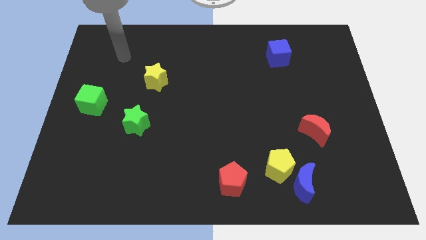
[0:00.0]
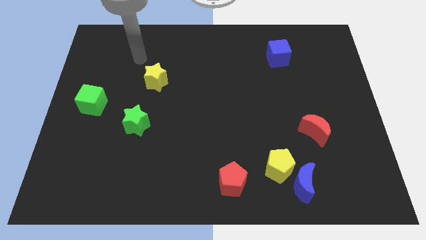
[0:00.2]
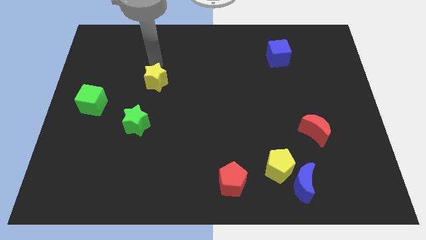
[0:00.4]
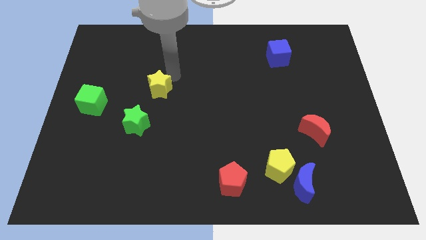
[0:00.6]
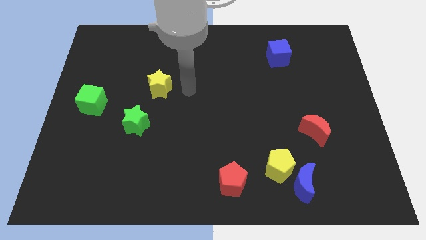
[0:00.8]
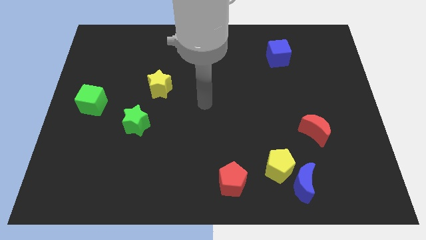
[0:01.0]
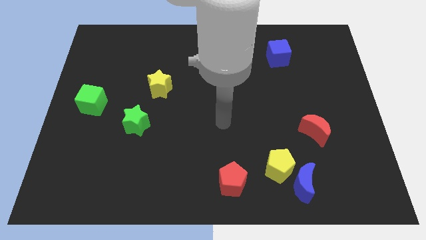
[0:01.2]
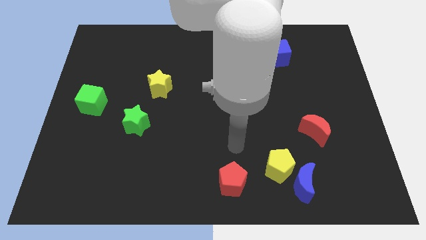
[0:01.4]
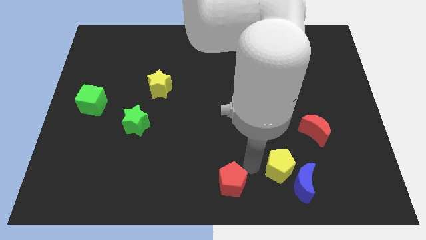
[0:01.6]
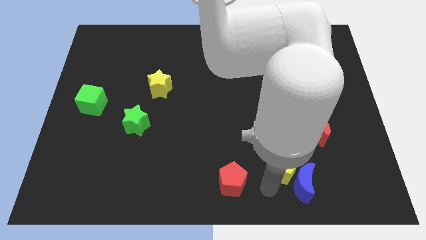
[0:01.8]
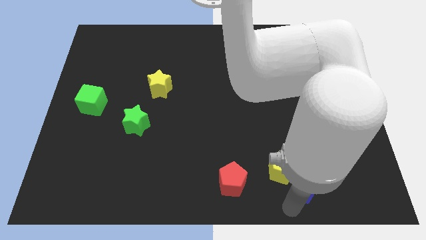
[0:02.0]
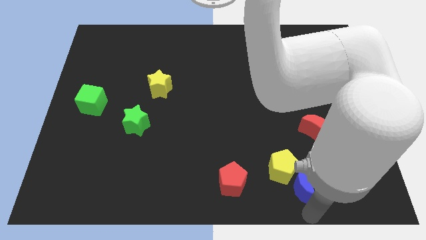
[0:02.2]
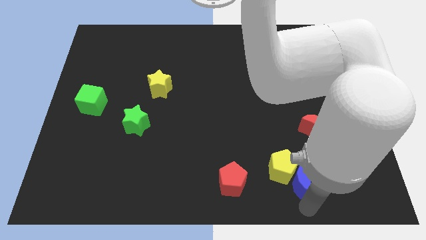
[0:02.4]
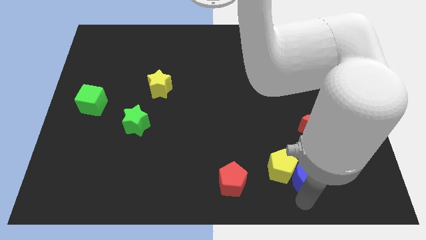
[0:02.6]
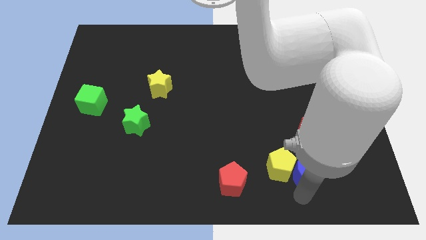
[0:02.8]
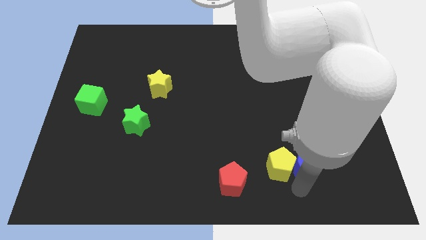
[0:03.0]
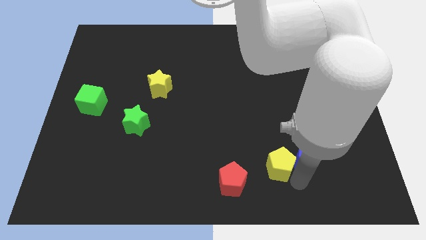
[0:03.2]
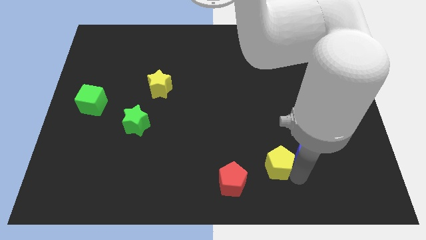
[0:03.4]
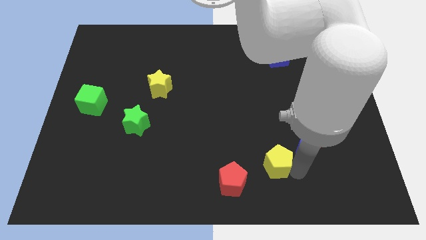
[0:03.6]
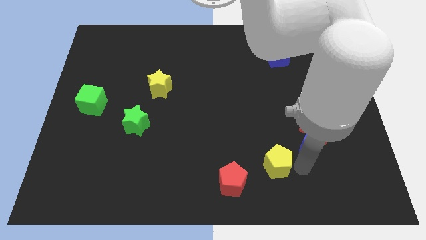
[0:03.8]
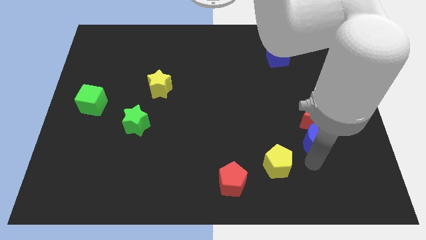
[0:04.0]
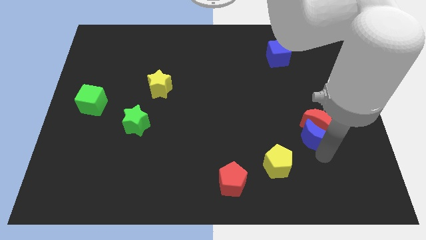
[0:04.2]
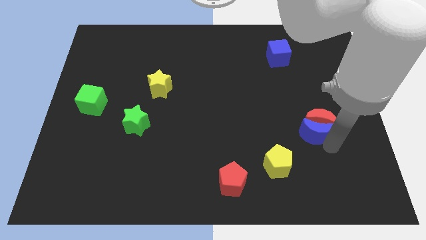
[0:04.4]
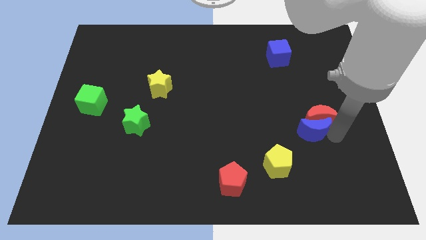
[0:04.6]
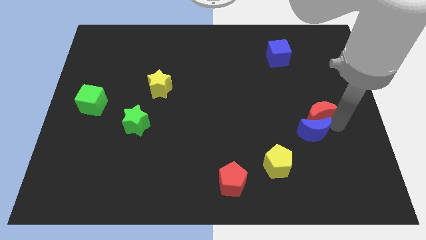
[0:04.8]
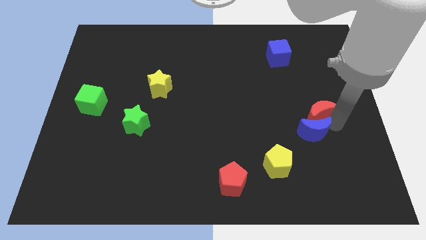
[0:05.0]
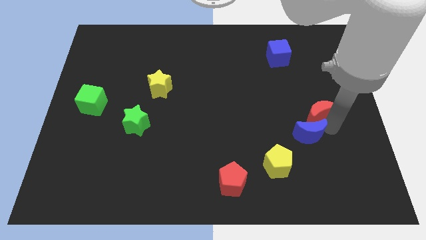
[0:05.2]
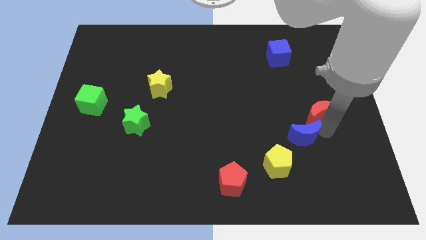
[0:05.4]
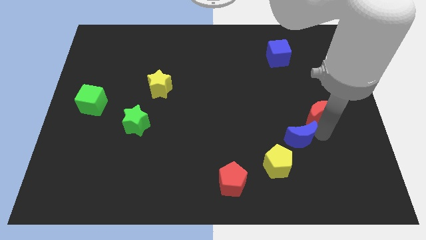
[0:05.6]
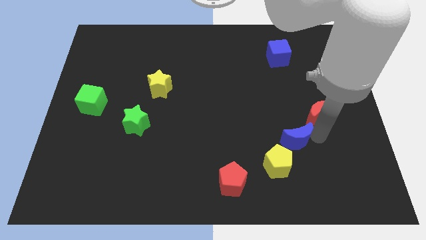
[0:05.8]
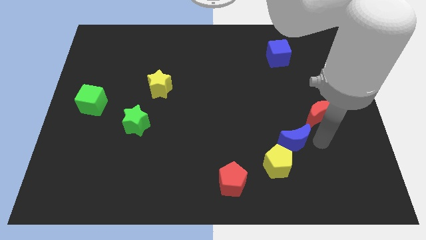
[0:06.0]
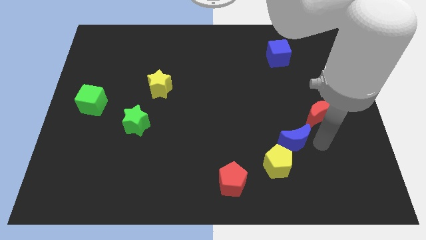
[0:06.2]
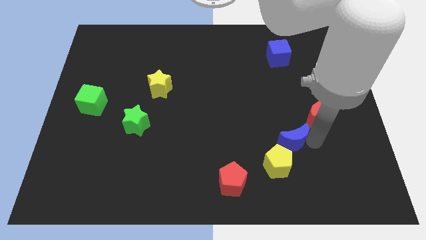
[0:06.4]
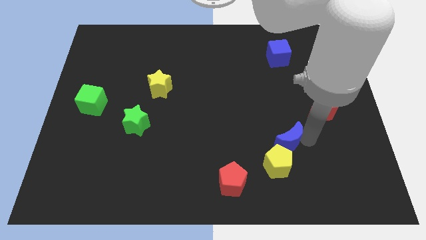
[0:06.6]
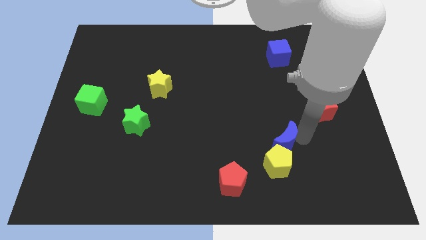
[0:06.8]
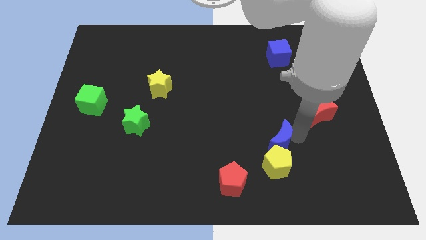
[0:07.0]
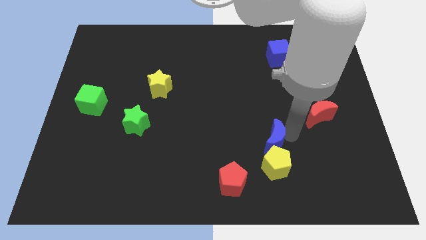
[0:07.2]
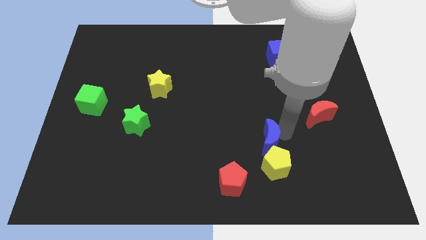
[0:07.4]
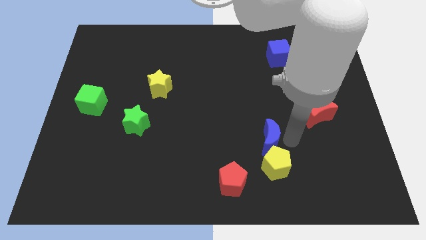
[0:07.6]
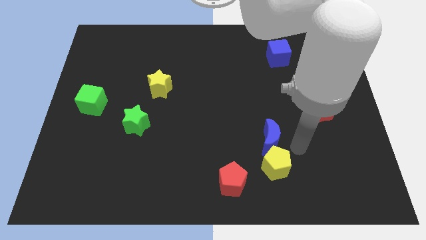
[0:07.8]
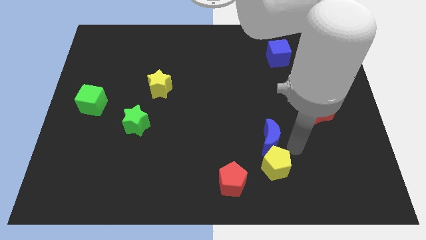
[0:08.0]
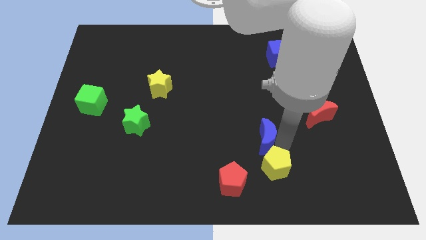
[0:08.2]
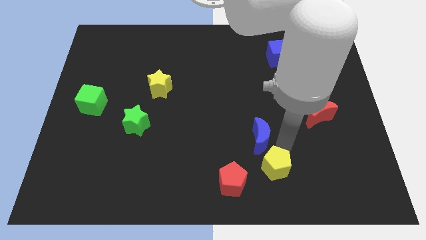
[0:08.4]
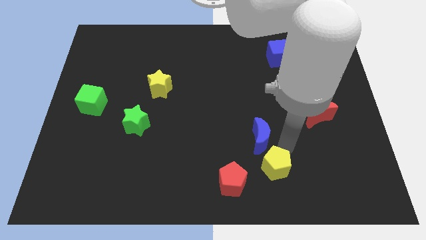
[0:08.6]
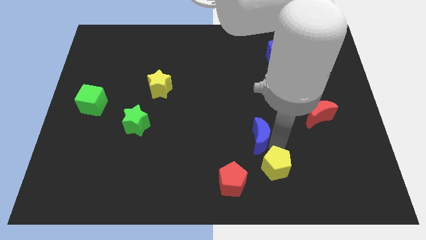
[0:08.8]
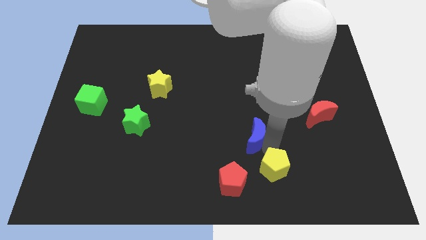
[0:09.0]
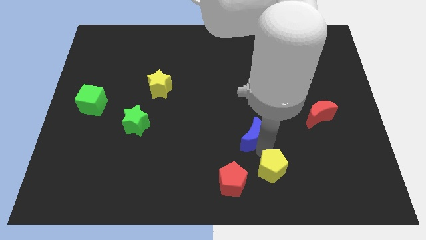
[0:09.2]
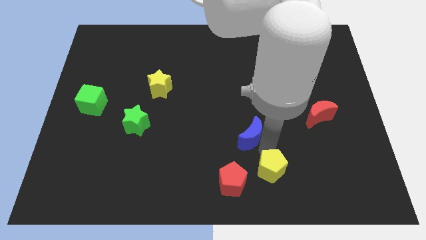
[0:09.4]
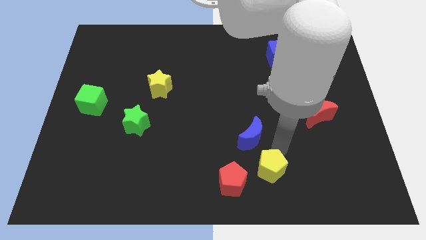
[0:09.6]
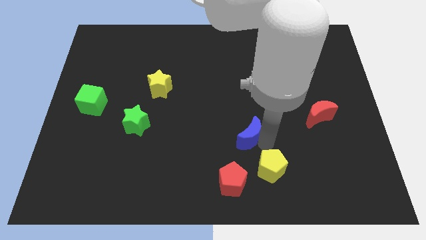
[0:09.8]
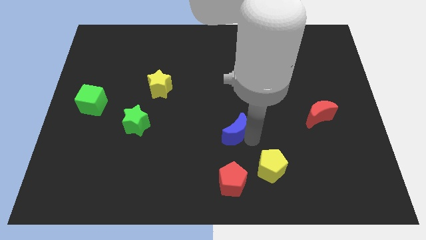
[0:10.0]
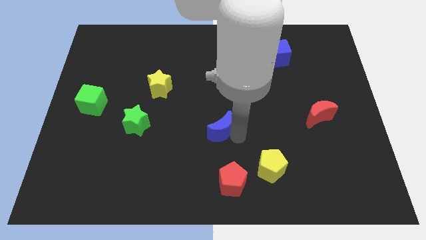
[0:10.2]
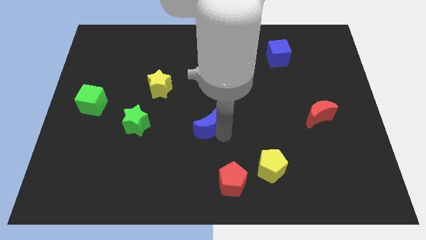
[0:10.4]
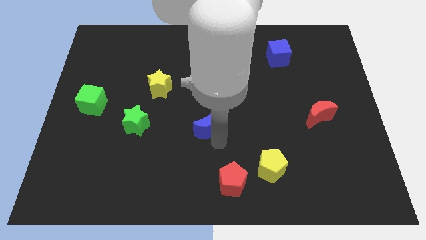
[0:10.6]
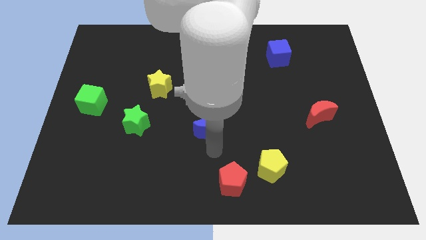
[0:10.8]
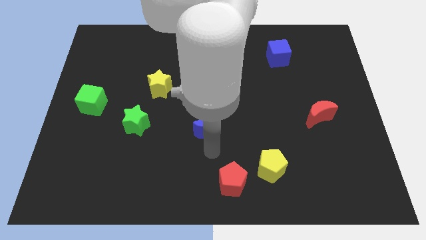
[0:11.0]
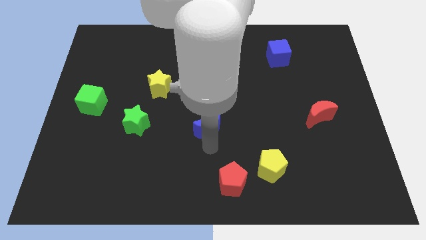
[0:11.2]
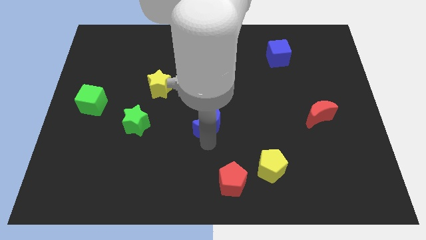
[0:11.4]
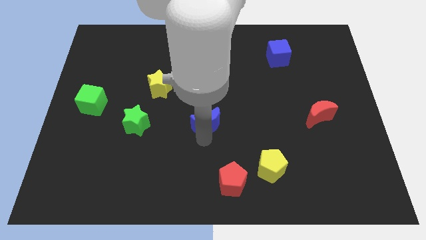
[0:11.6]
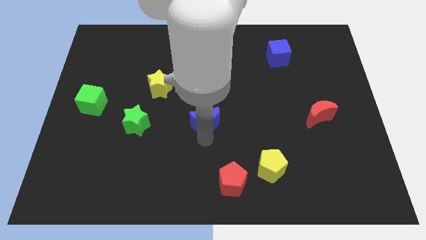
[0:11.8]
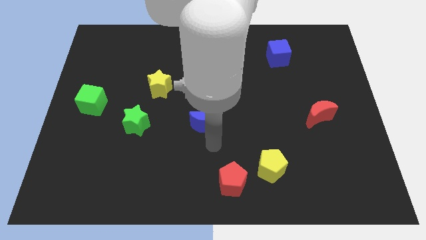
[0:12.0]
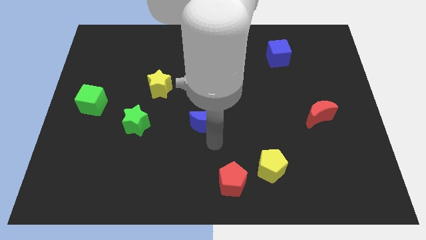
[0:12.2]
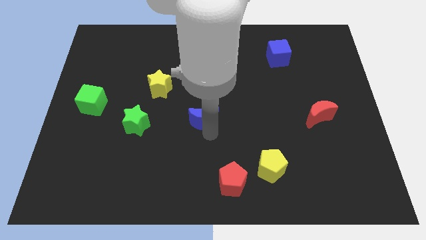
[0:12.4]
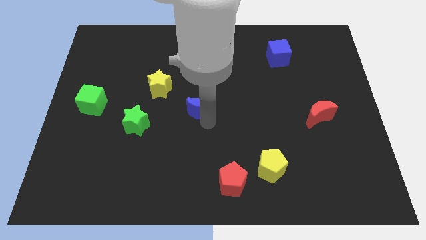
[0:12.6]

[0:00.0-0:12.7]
put the blue moon to the bottom right side of the yellow star

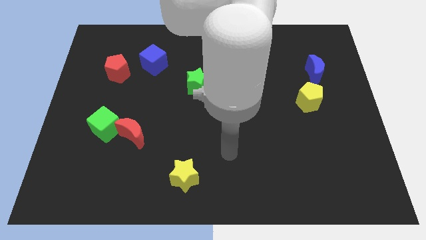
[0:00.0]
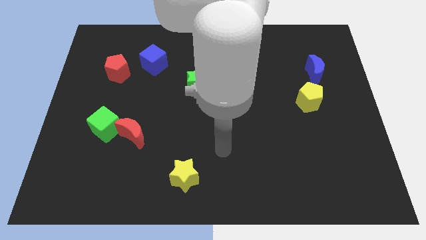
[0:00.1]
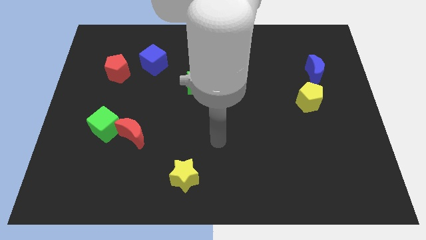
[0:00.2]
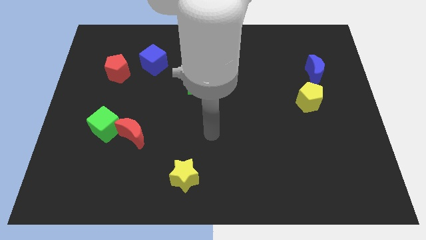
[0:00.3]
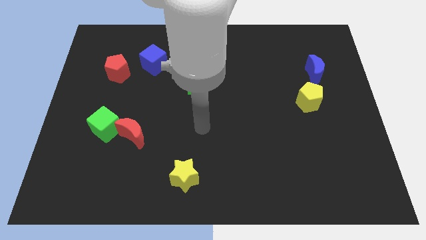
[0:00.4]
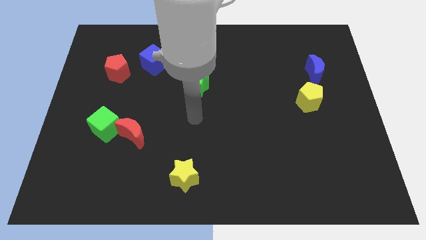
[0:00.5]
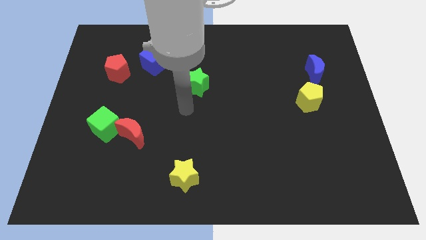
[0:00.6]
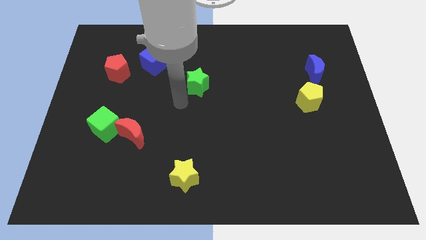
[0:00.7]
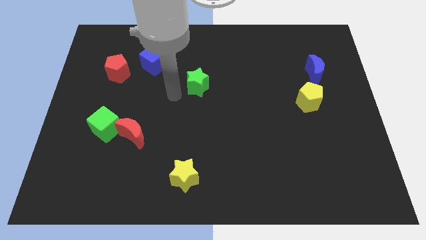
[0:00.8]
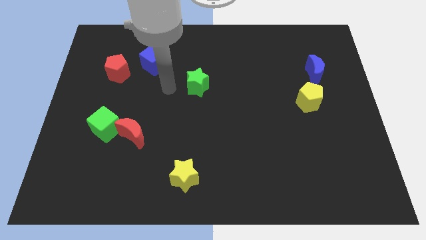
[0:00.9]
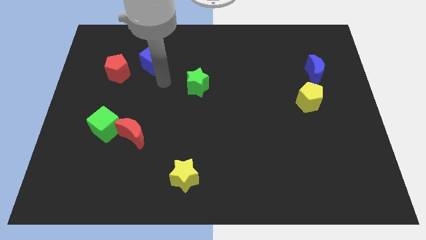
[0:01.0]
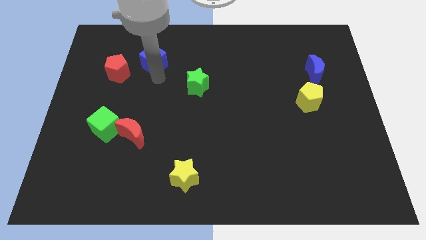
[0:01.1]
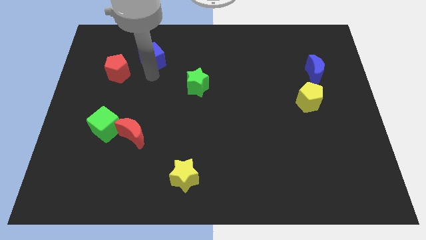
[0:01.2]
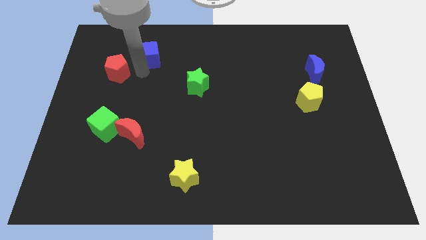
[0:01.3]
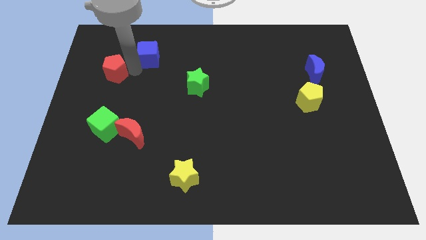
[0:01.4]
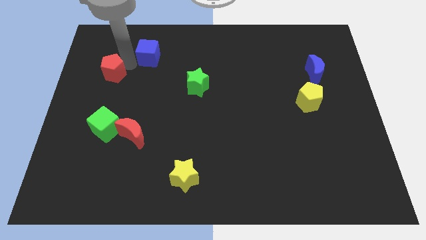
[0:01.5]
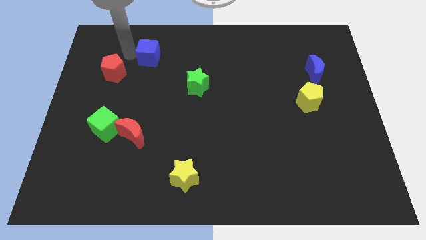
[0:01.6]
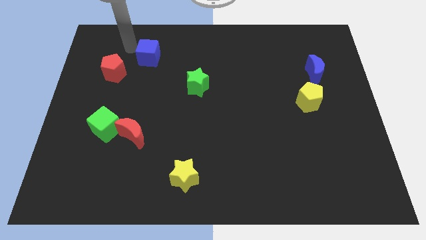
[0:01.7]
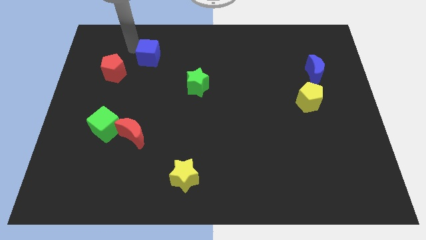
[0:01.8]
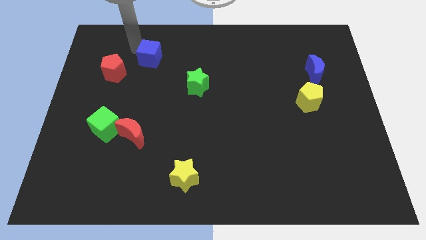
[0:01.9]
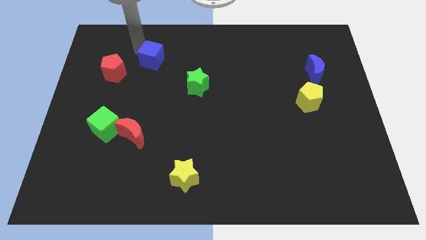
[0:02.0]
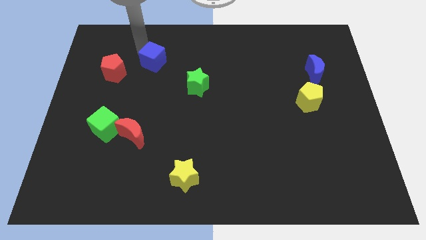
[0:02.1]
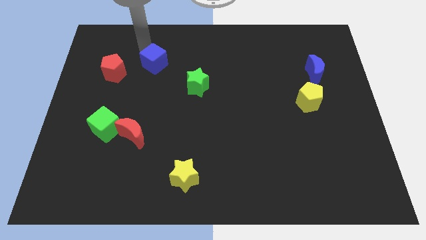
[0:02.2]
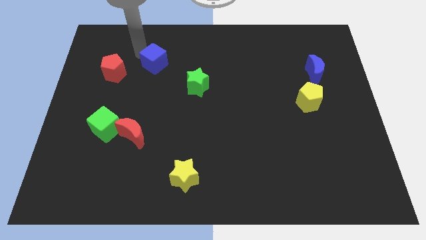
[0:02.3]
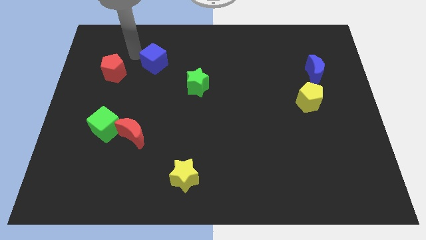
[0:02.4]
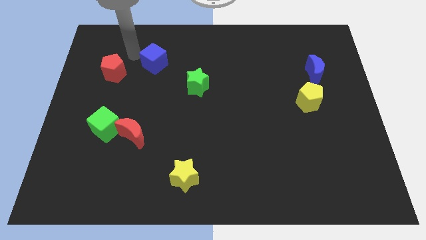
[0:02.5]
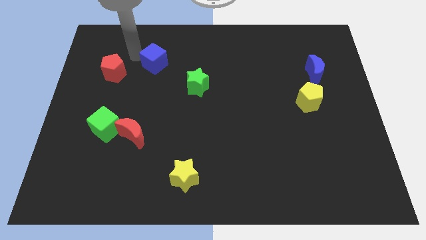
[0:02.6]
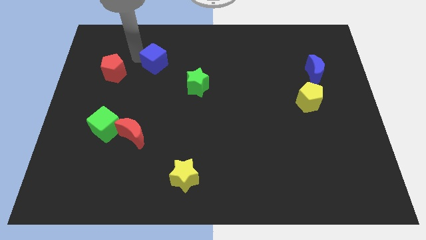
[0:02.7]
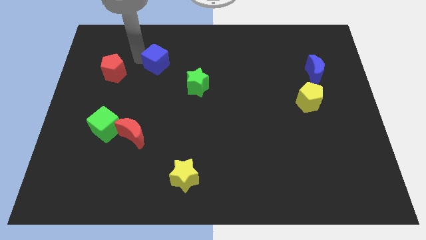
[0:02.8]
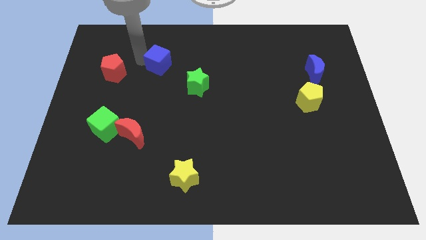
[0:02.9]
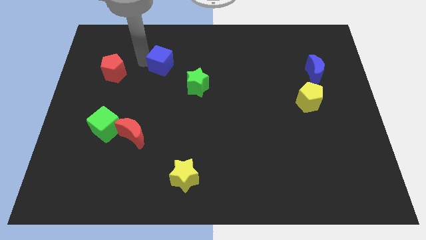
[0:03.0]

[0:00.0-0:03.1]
slide the blue cube to the top left of the green star
